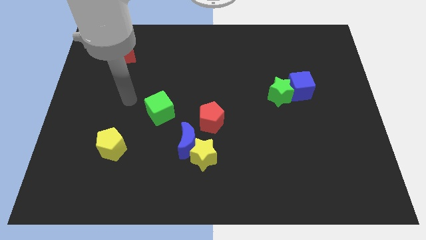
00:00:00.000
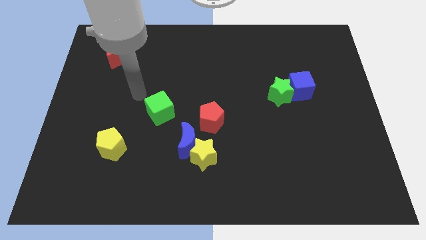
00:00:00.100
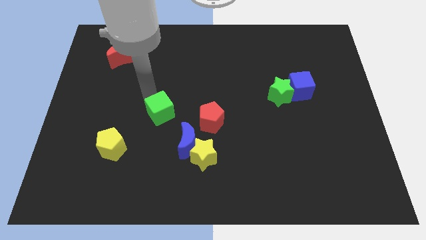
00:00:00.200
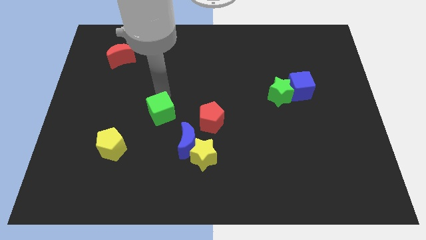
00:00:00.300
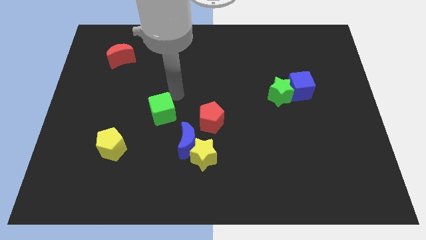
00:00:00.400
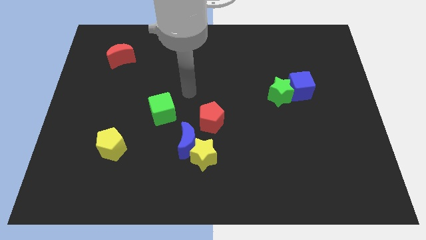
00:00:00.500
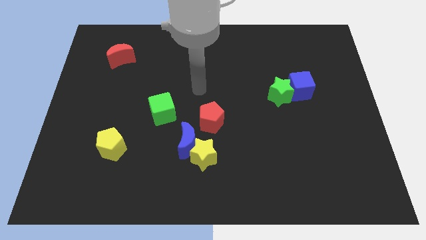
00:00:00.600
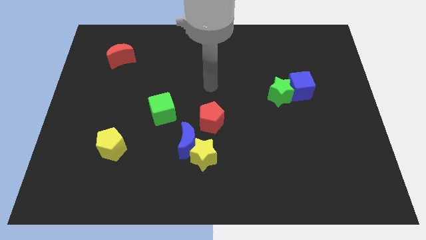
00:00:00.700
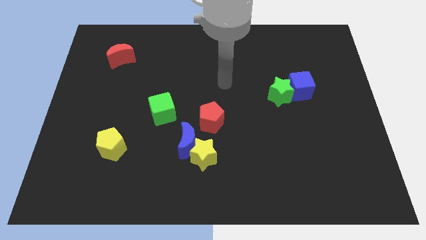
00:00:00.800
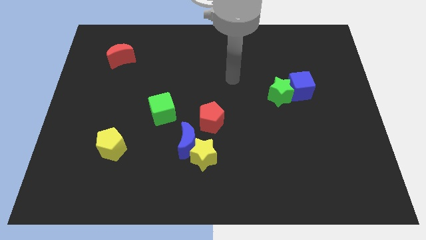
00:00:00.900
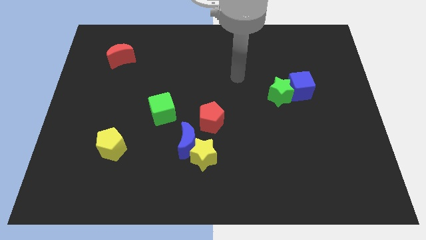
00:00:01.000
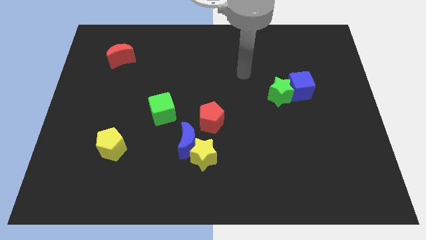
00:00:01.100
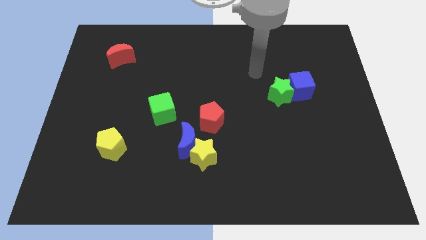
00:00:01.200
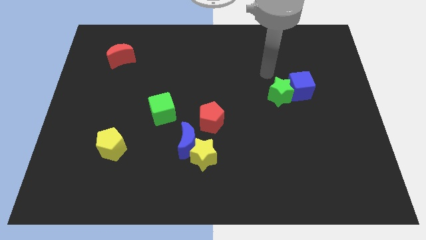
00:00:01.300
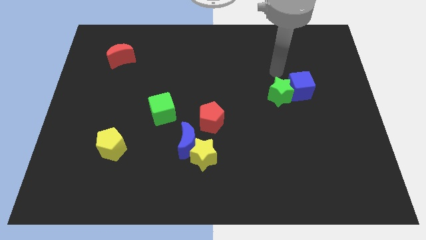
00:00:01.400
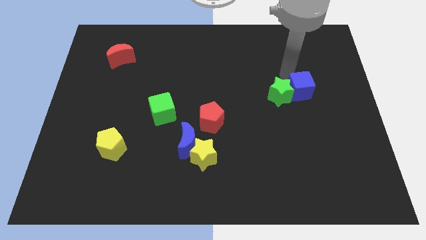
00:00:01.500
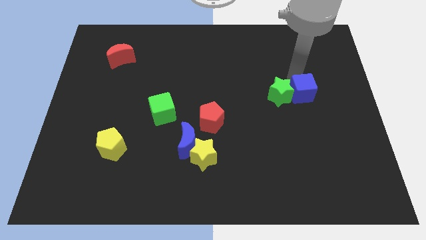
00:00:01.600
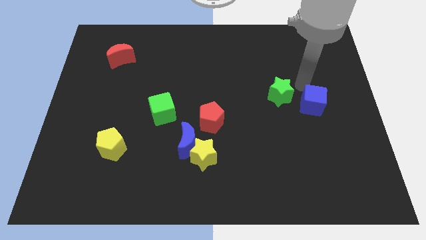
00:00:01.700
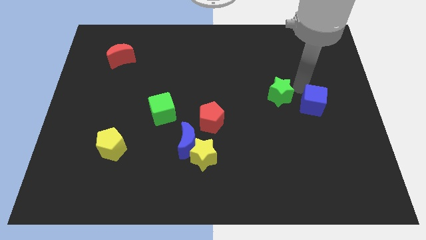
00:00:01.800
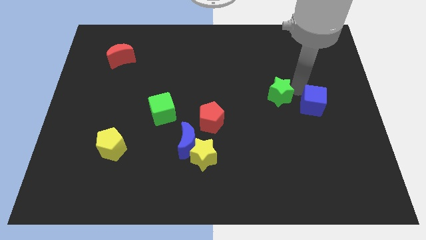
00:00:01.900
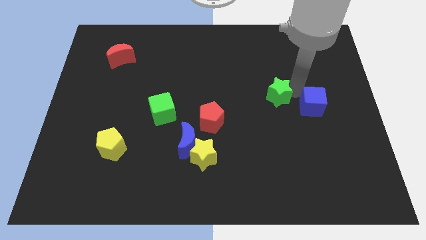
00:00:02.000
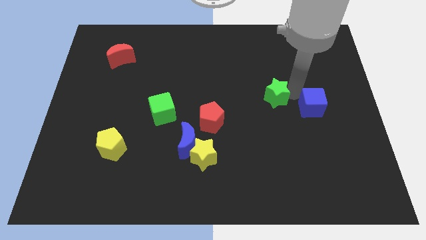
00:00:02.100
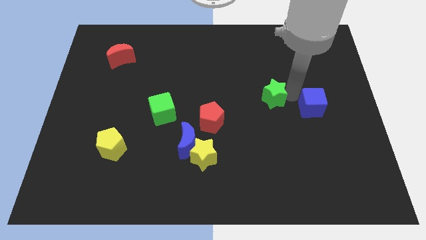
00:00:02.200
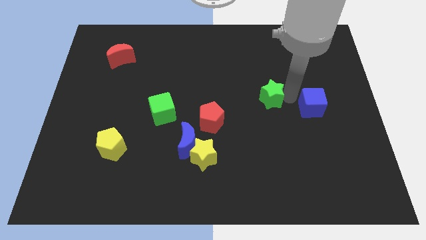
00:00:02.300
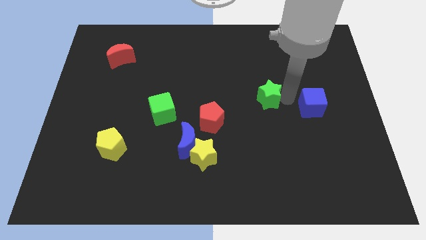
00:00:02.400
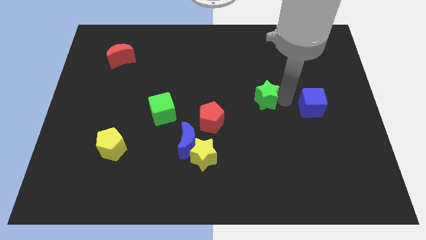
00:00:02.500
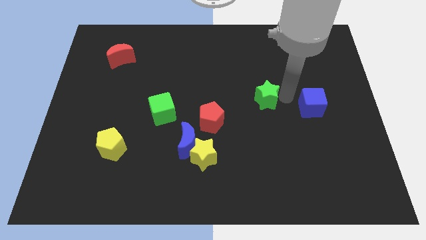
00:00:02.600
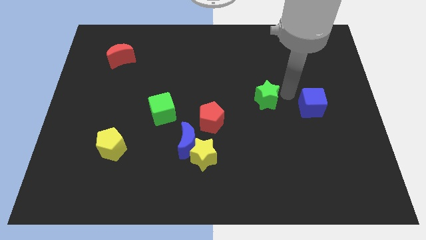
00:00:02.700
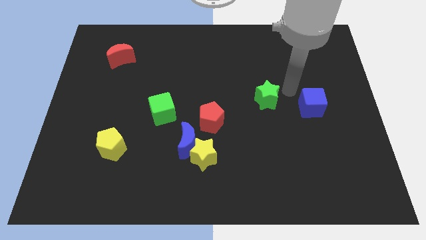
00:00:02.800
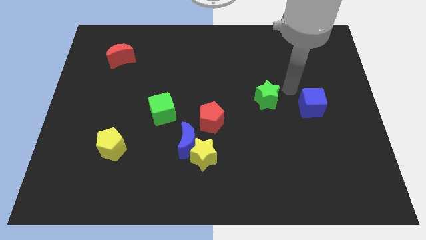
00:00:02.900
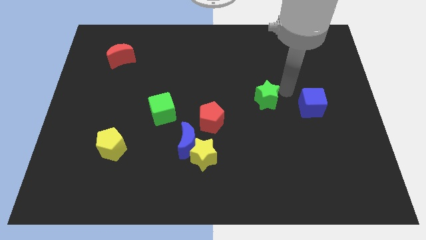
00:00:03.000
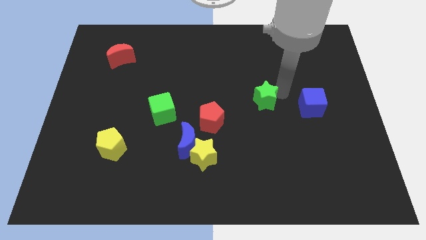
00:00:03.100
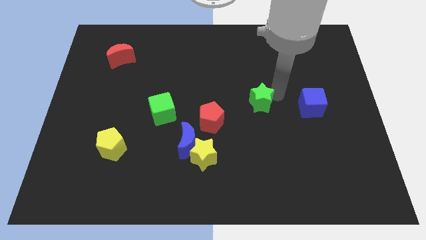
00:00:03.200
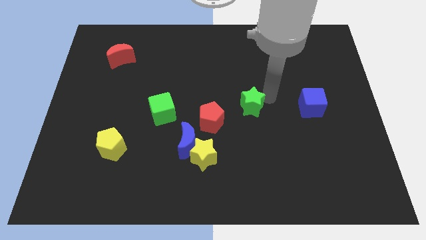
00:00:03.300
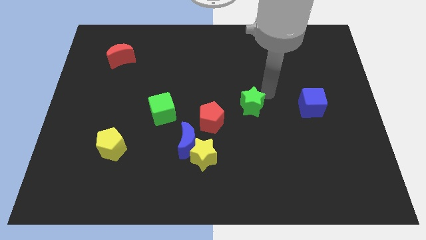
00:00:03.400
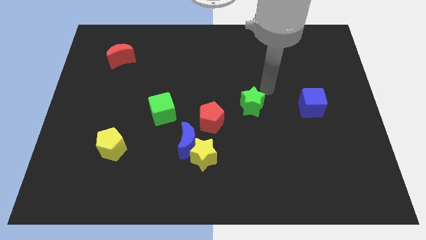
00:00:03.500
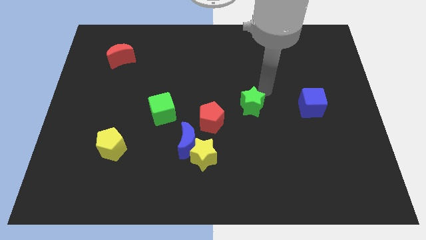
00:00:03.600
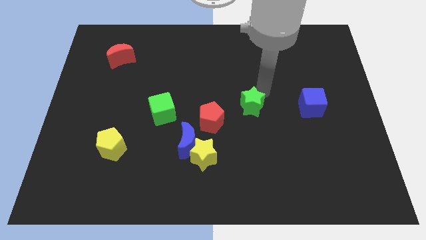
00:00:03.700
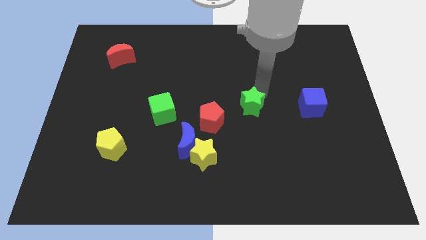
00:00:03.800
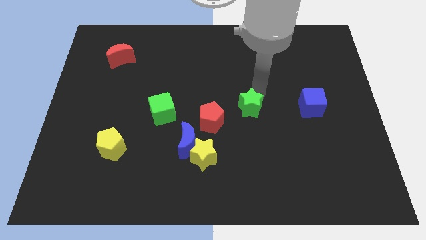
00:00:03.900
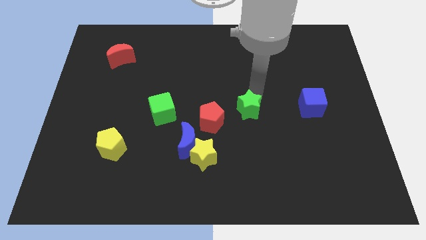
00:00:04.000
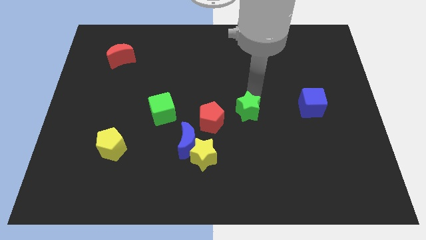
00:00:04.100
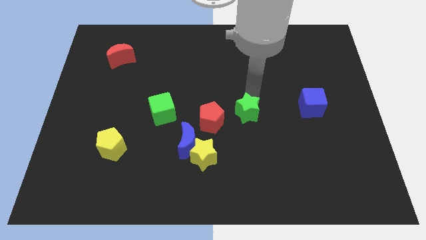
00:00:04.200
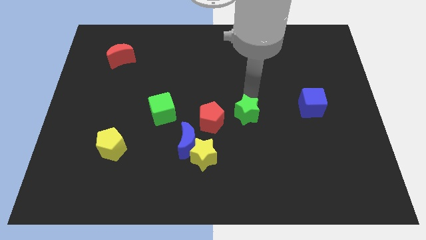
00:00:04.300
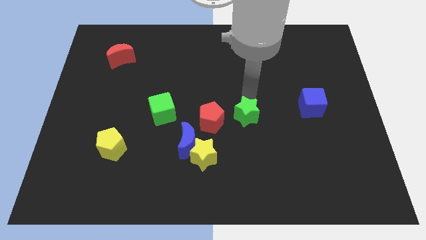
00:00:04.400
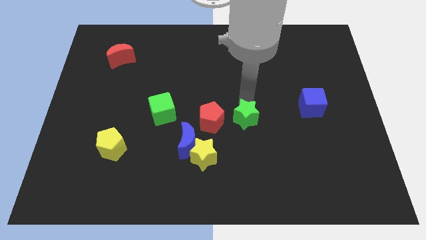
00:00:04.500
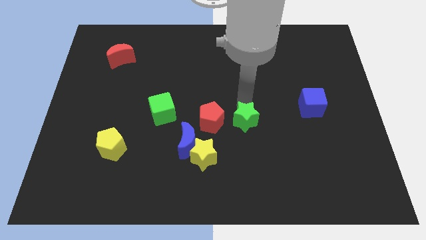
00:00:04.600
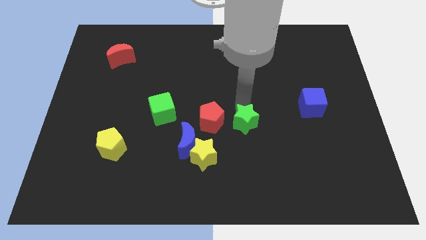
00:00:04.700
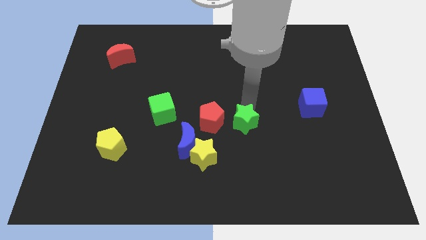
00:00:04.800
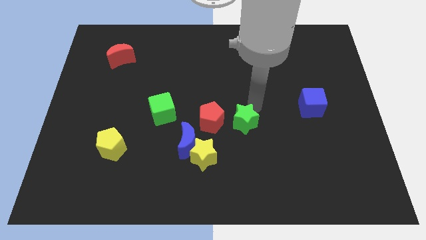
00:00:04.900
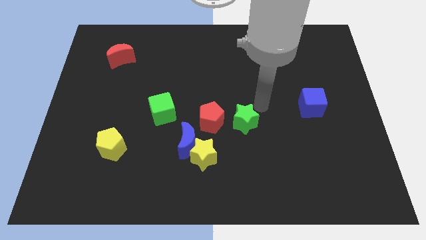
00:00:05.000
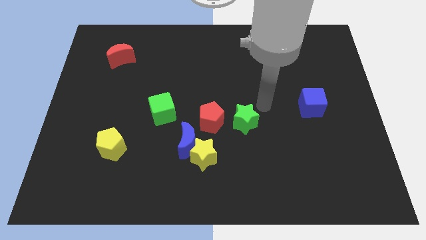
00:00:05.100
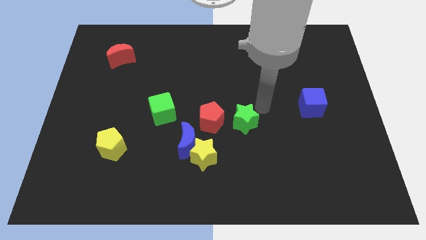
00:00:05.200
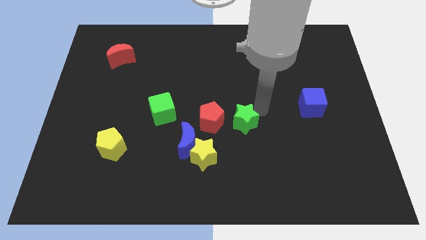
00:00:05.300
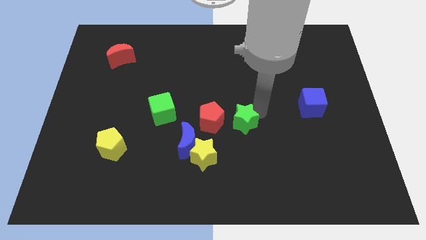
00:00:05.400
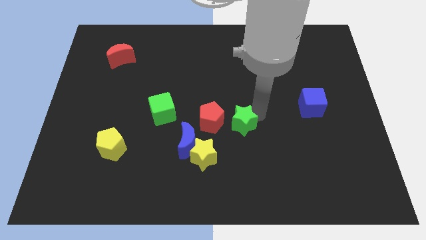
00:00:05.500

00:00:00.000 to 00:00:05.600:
push the green star to the top right side of the yellow star

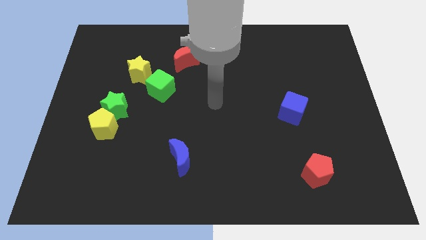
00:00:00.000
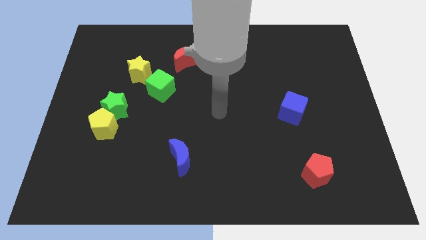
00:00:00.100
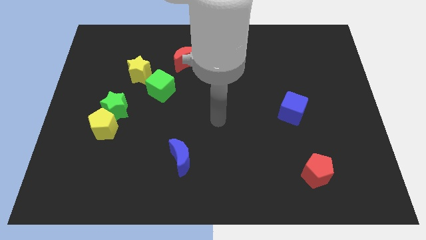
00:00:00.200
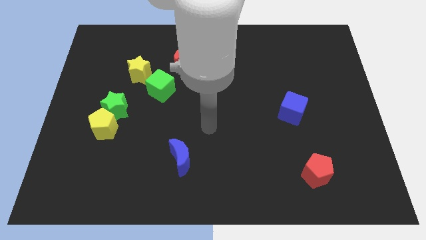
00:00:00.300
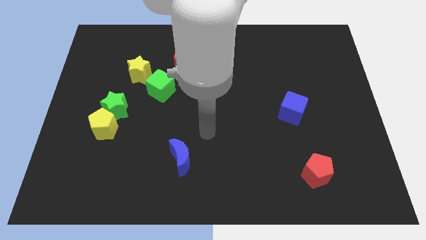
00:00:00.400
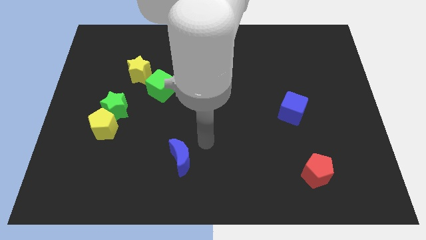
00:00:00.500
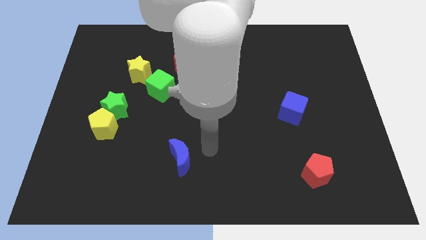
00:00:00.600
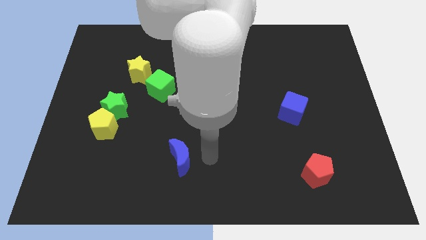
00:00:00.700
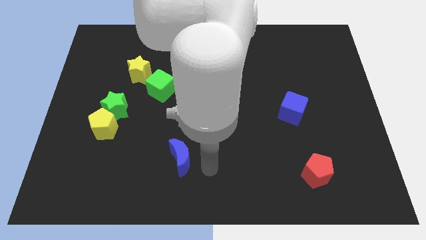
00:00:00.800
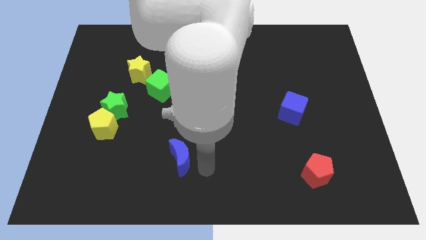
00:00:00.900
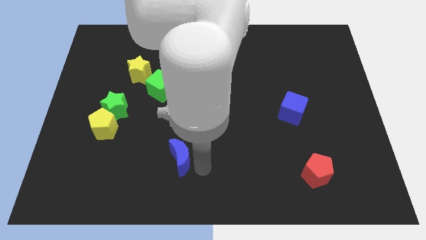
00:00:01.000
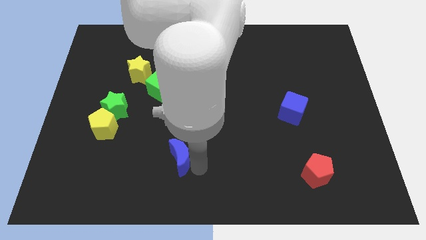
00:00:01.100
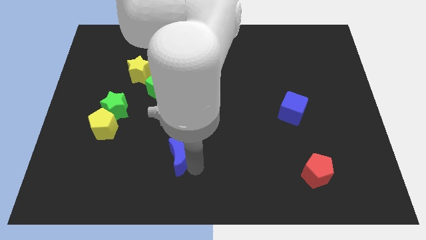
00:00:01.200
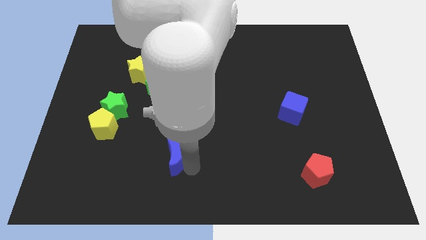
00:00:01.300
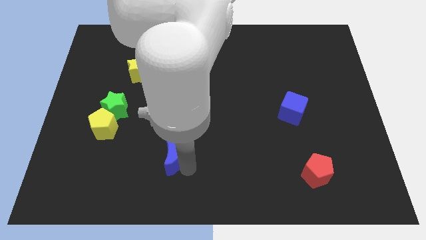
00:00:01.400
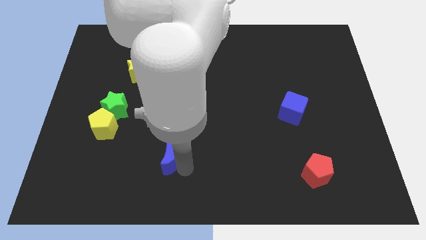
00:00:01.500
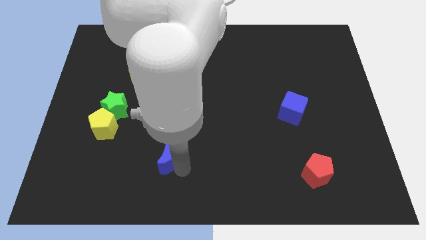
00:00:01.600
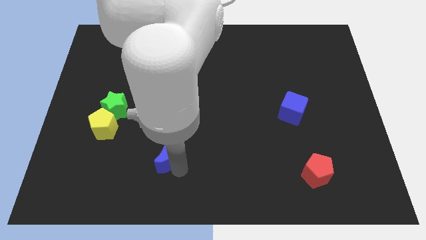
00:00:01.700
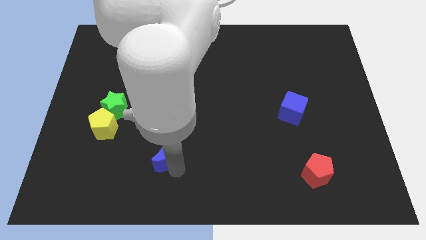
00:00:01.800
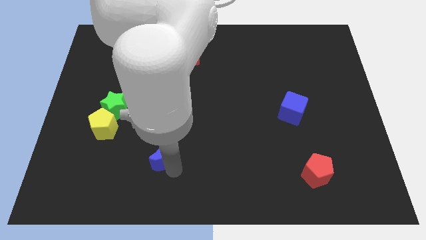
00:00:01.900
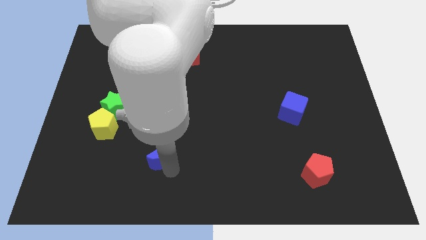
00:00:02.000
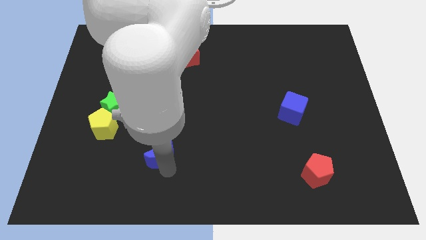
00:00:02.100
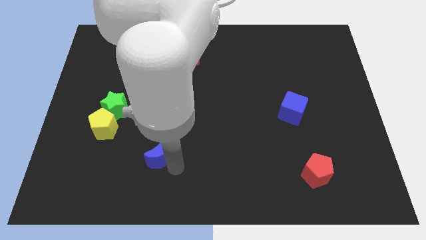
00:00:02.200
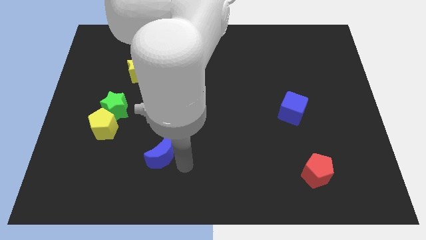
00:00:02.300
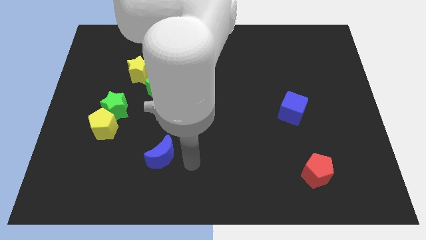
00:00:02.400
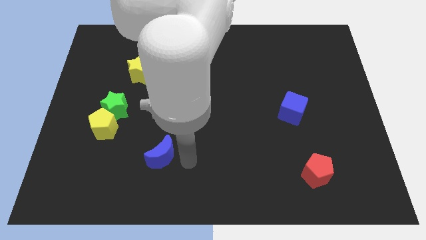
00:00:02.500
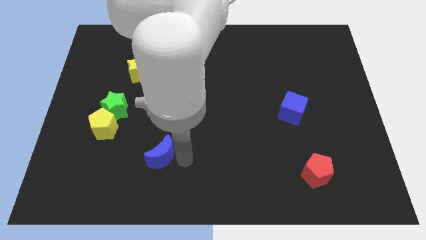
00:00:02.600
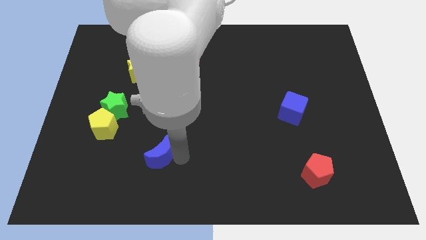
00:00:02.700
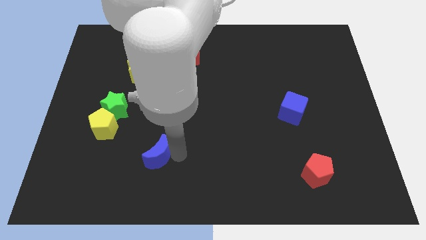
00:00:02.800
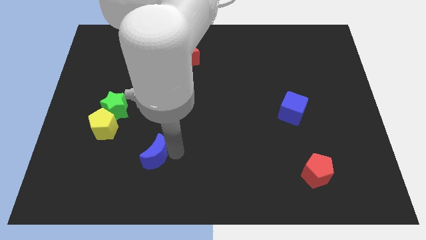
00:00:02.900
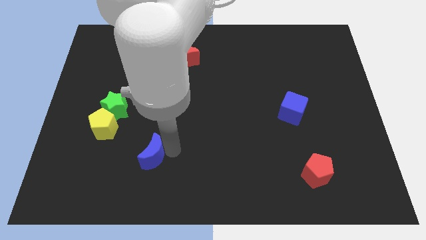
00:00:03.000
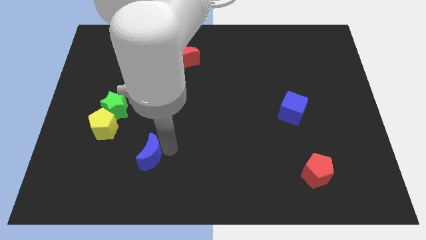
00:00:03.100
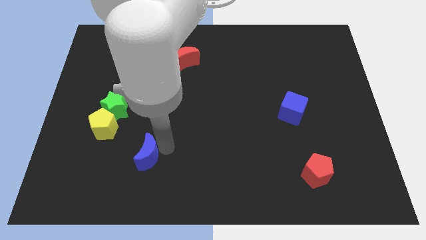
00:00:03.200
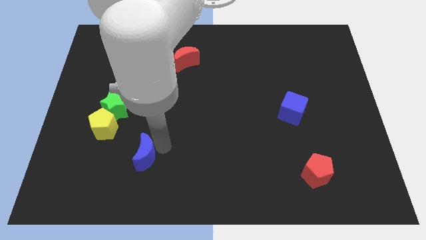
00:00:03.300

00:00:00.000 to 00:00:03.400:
move the blue moon diagonally down and to the right of the yellow pentagon
